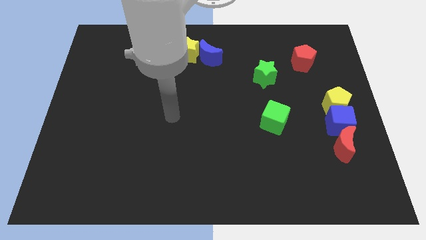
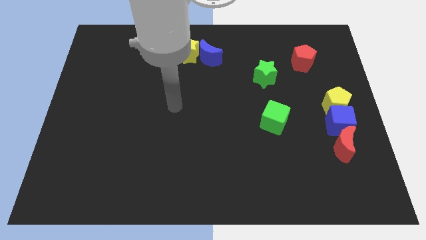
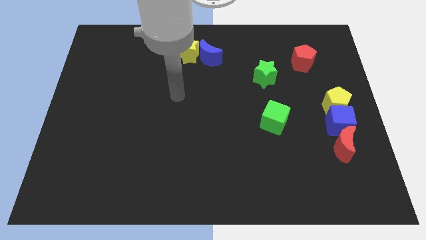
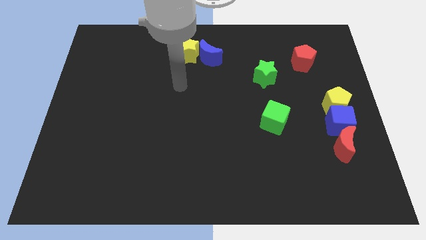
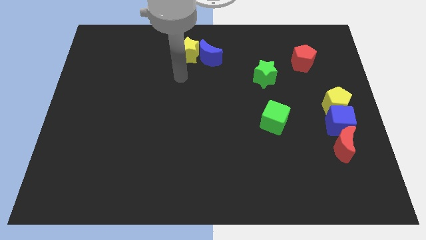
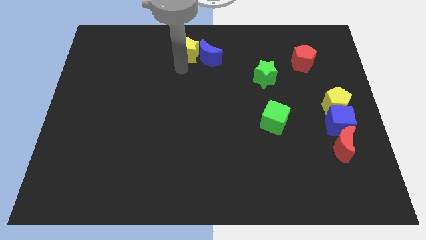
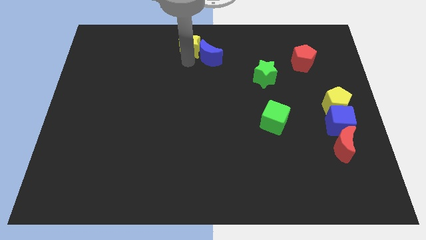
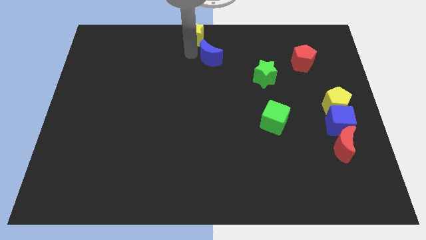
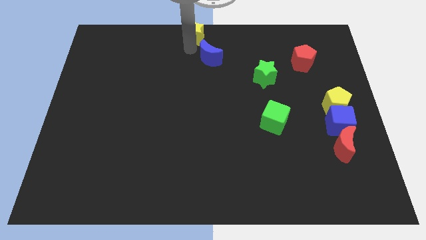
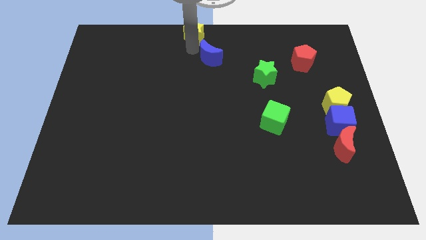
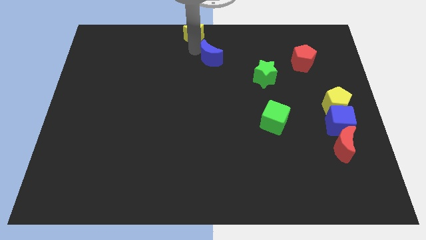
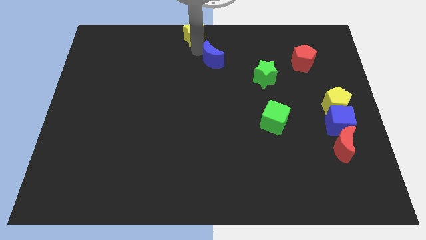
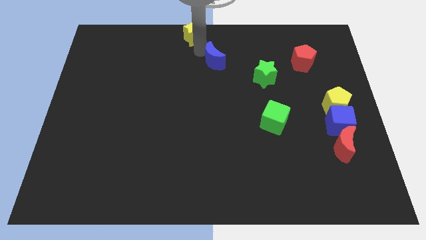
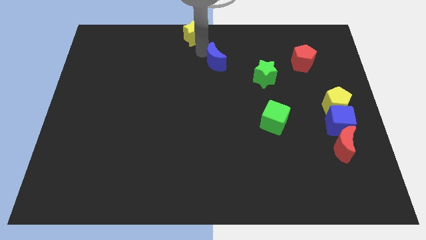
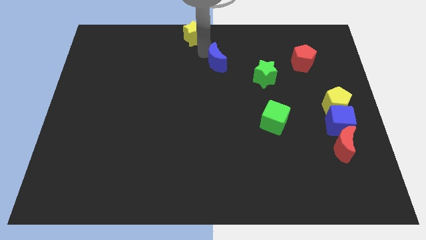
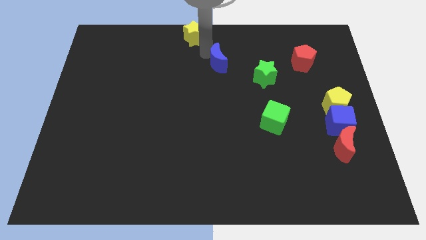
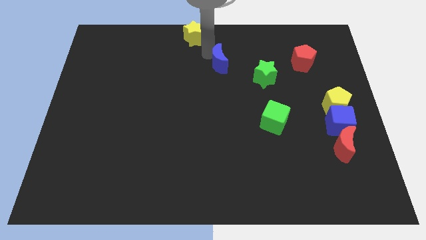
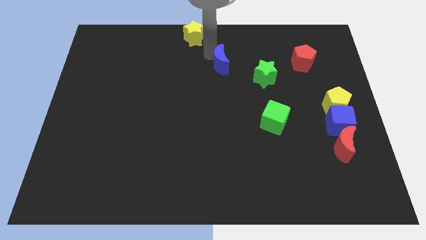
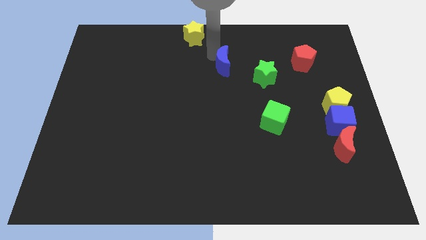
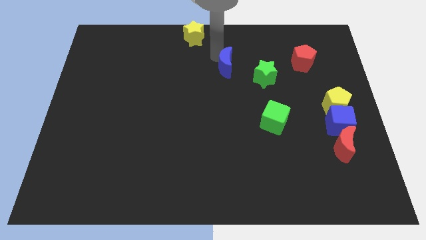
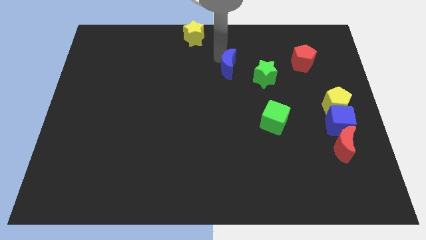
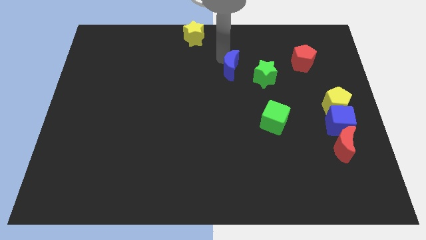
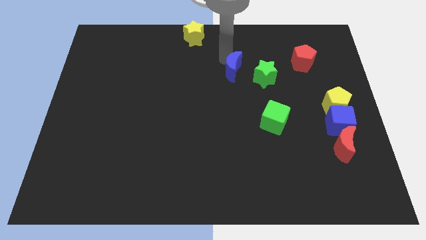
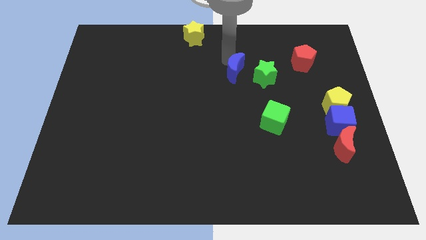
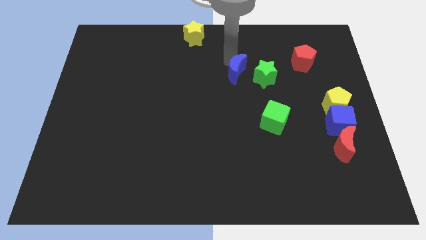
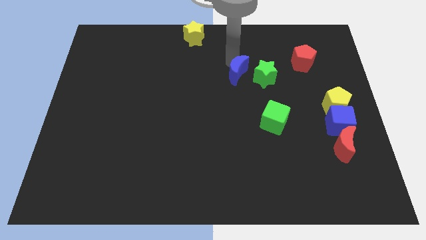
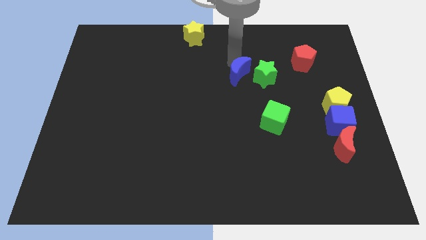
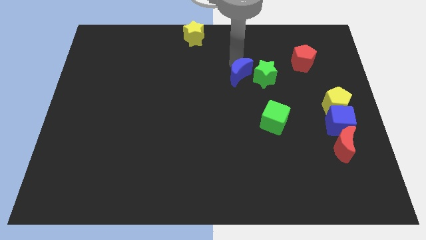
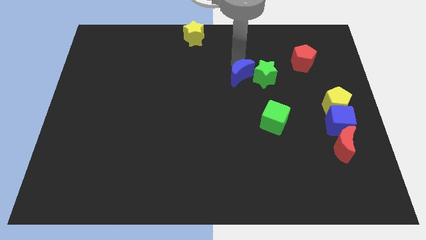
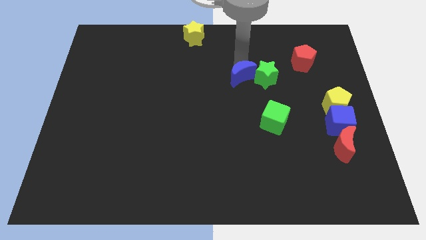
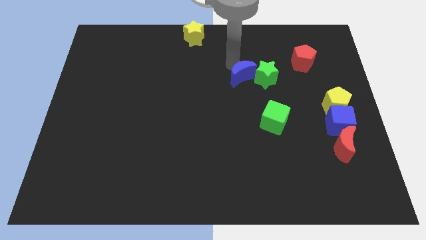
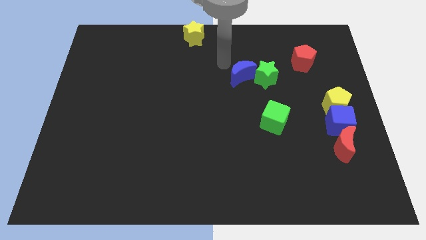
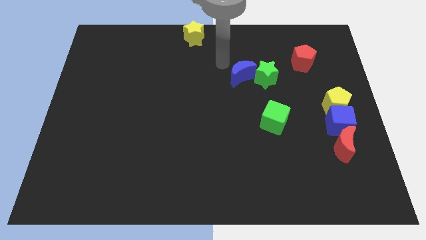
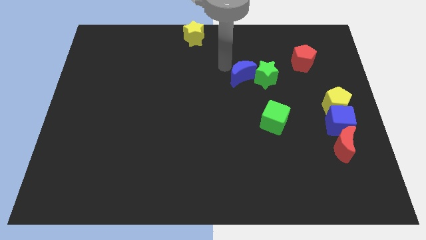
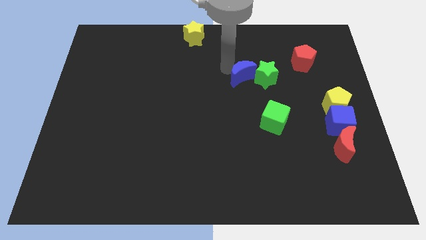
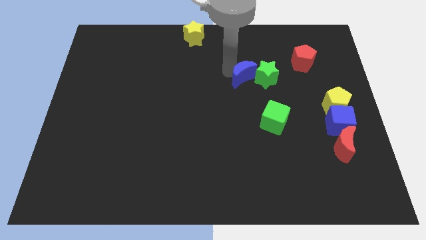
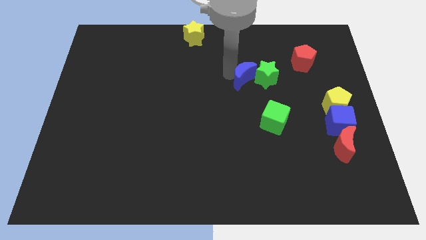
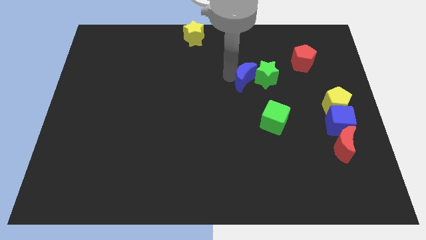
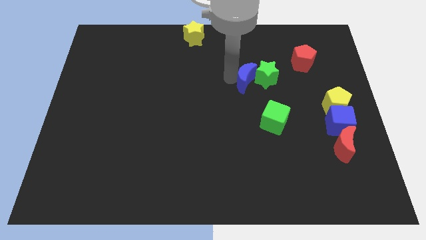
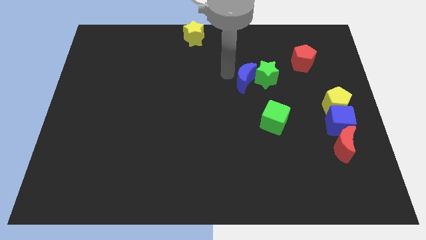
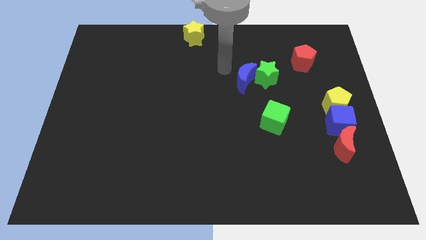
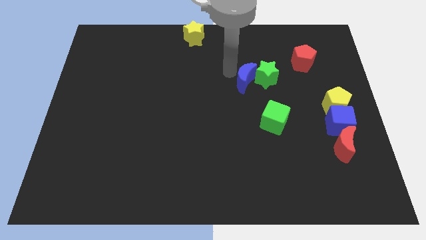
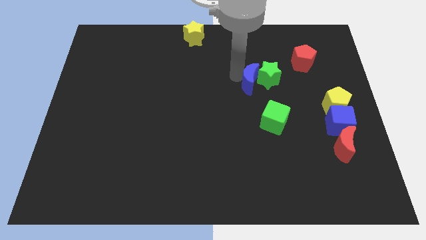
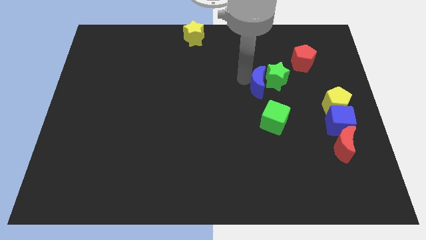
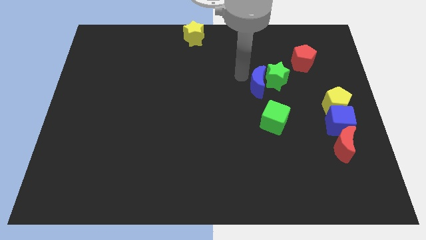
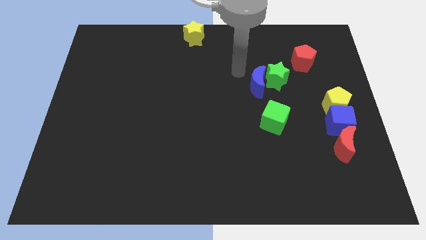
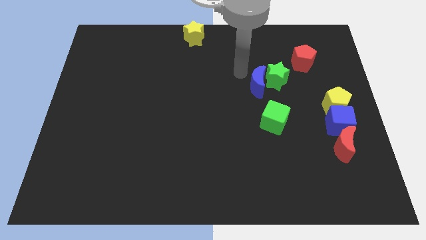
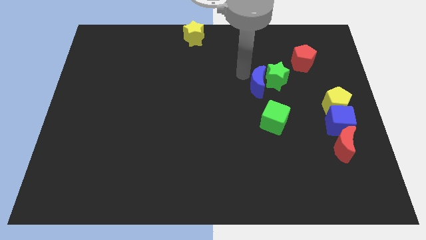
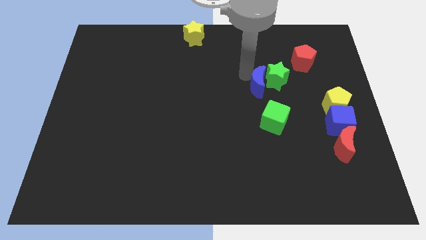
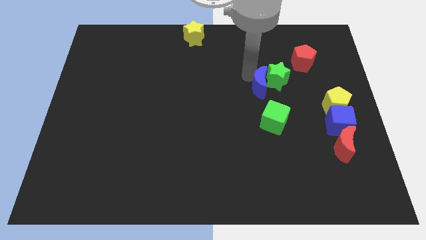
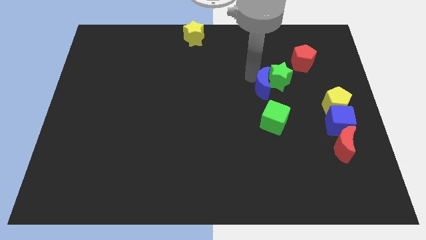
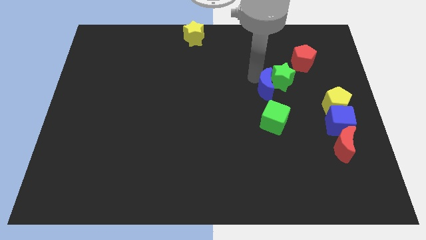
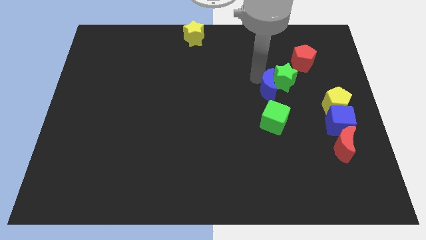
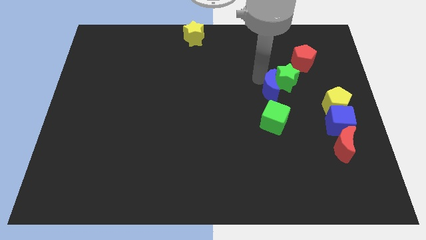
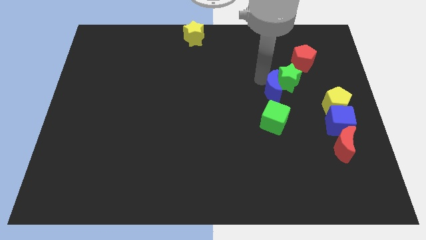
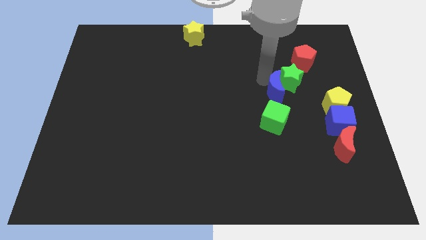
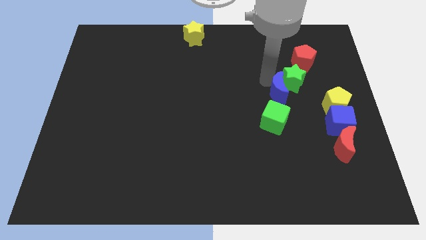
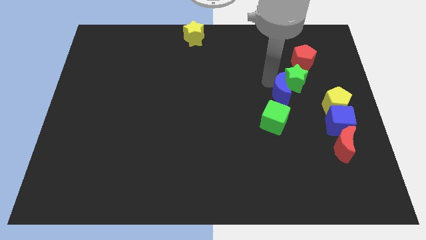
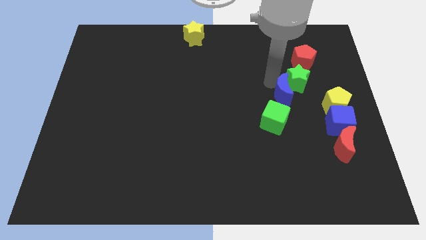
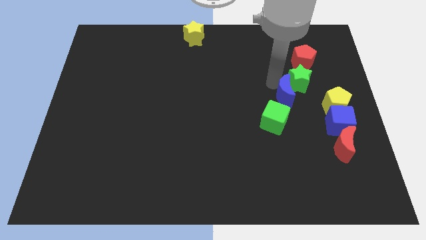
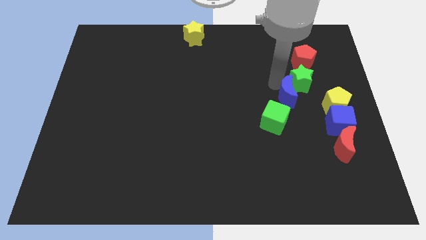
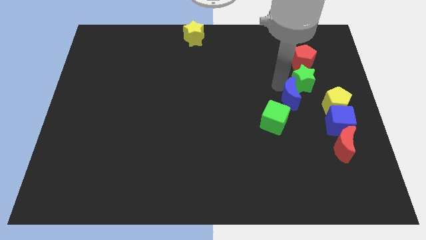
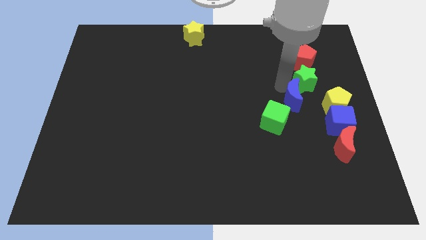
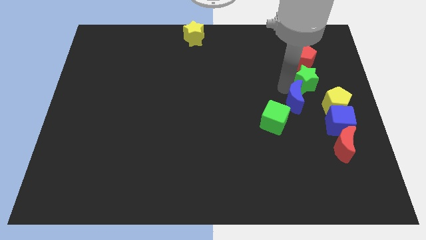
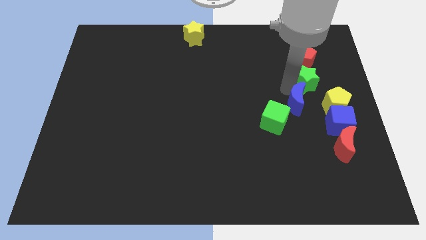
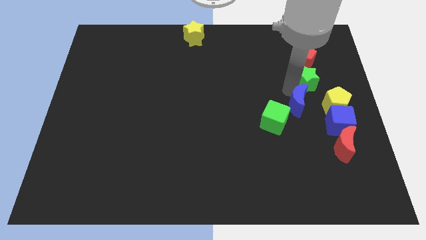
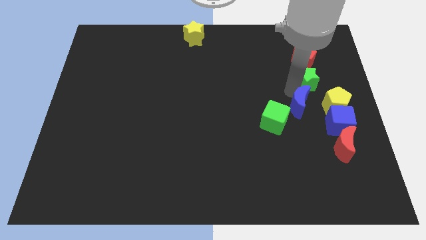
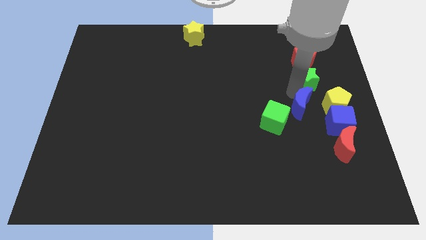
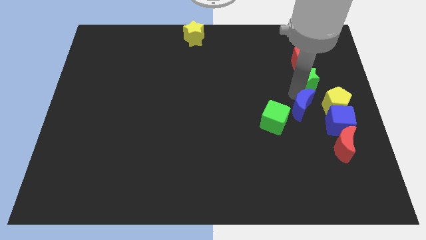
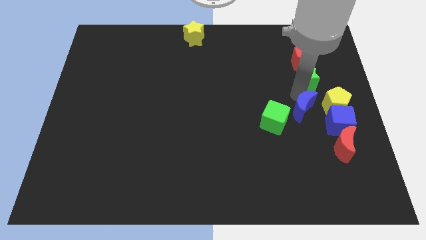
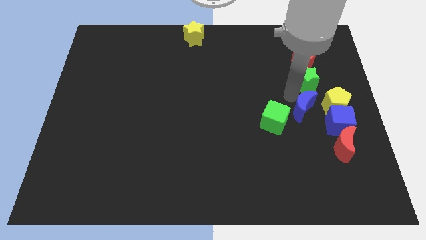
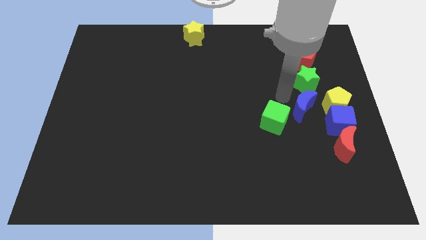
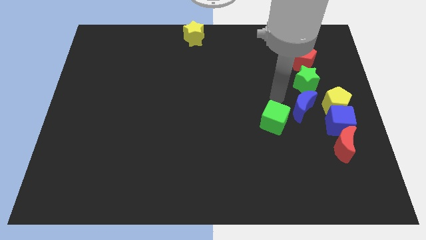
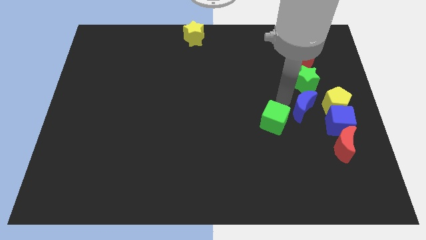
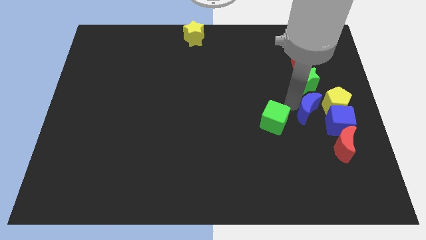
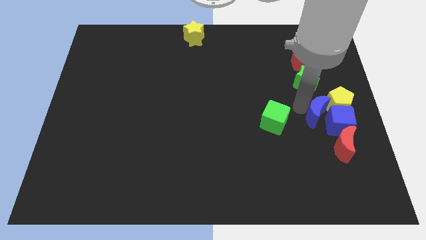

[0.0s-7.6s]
push the blue moon close to the blue cube
